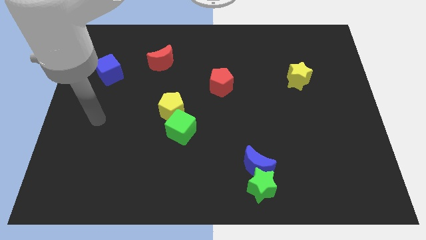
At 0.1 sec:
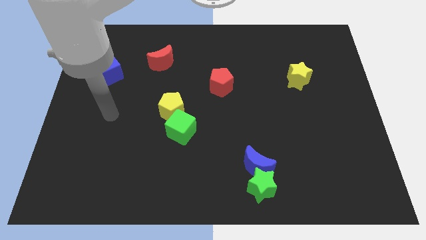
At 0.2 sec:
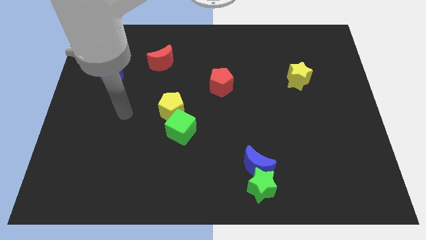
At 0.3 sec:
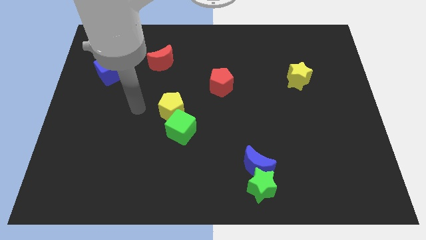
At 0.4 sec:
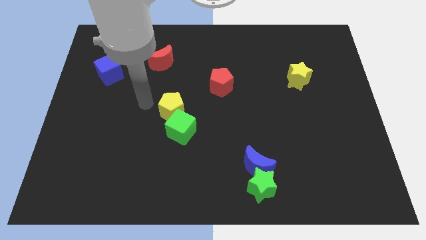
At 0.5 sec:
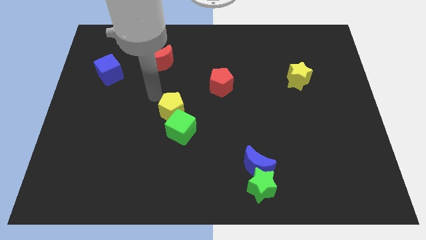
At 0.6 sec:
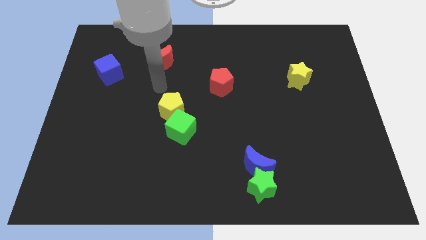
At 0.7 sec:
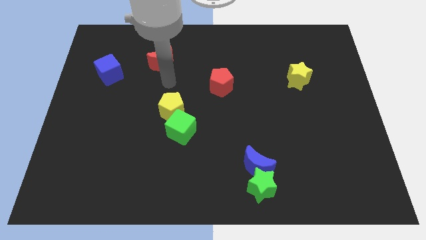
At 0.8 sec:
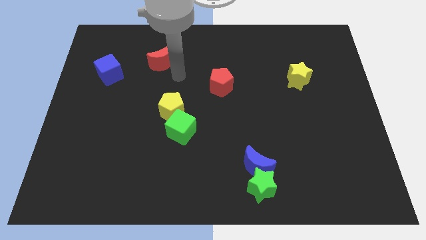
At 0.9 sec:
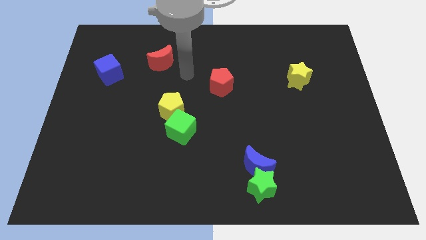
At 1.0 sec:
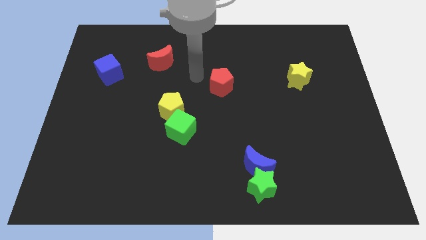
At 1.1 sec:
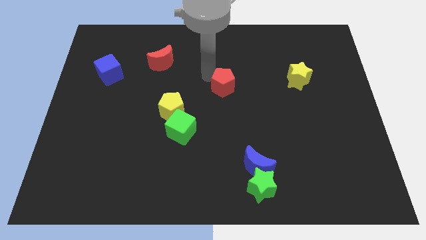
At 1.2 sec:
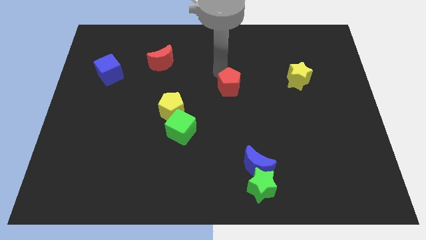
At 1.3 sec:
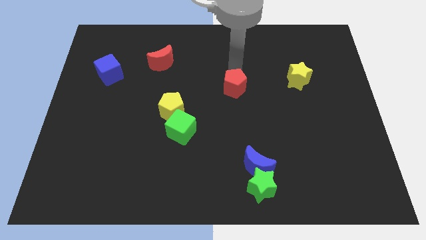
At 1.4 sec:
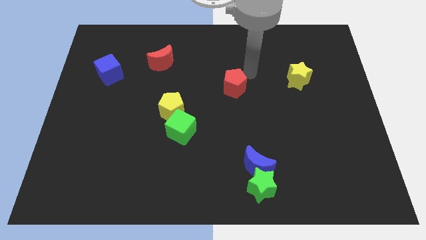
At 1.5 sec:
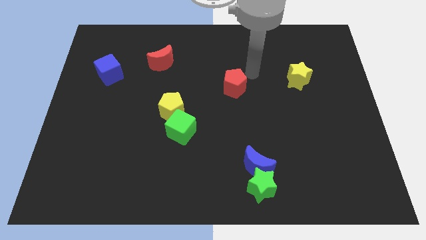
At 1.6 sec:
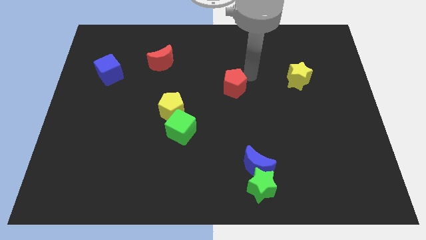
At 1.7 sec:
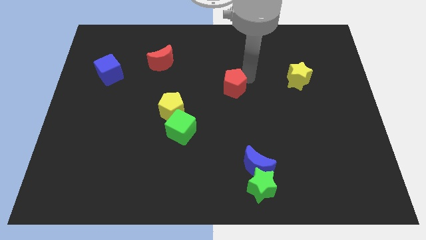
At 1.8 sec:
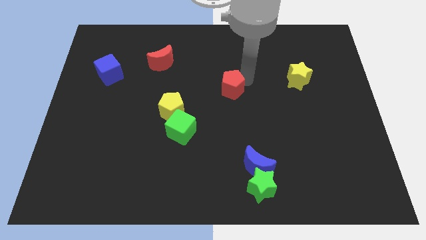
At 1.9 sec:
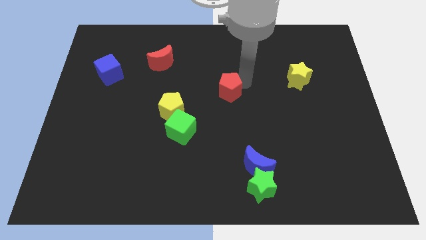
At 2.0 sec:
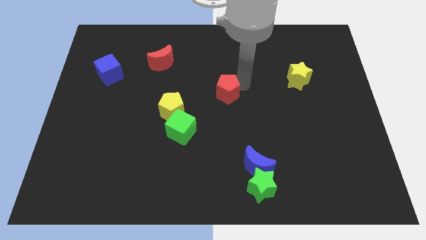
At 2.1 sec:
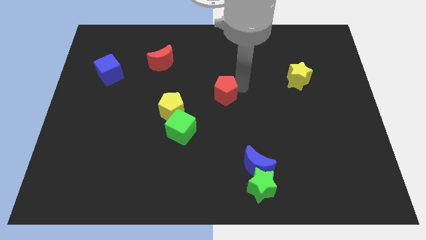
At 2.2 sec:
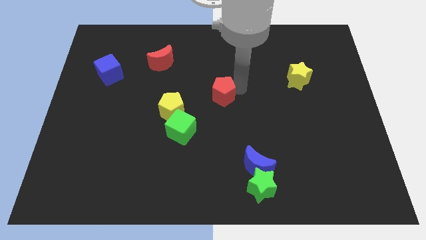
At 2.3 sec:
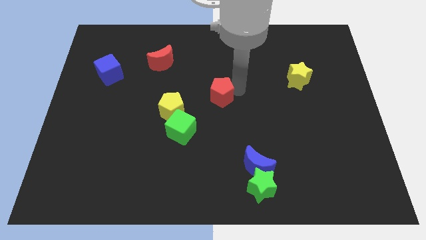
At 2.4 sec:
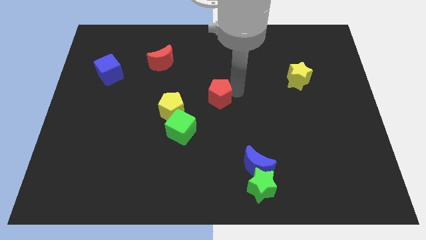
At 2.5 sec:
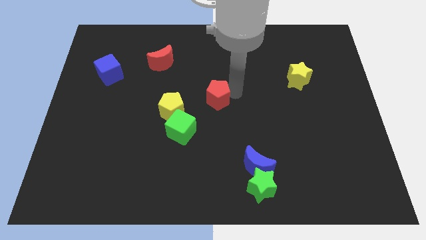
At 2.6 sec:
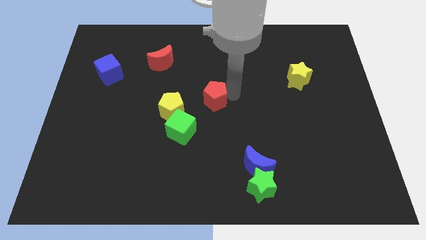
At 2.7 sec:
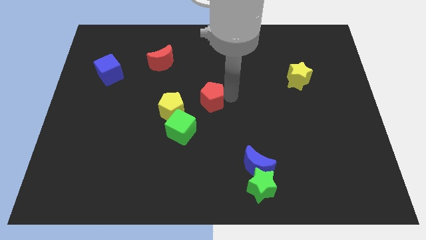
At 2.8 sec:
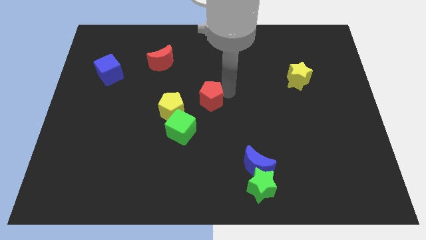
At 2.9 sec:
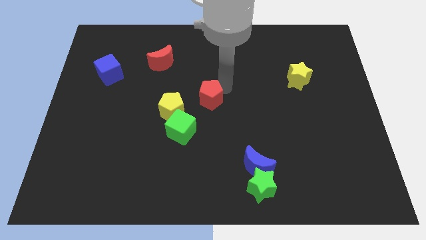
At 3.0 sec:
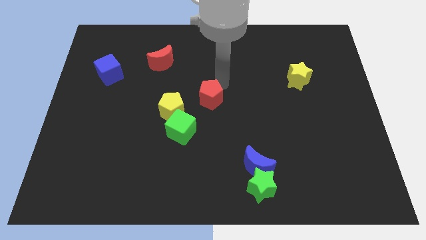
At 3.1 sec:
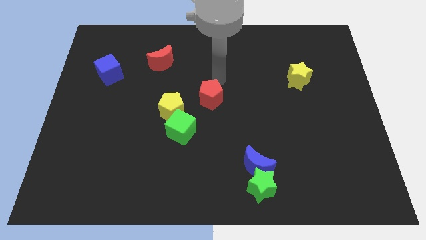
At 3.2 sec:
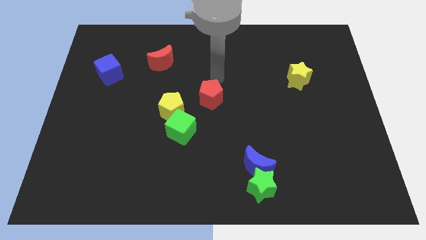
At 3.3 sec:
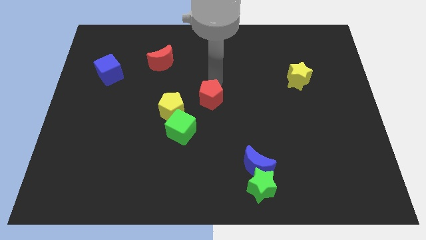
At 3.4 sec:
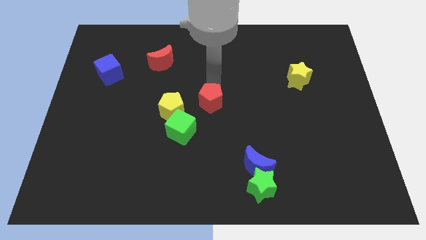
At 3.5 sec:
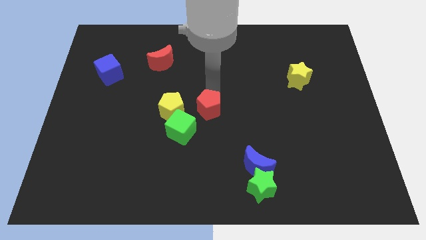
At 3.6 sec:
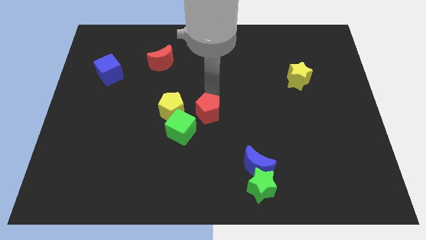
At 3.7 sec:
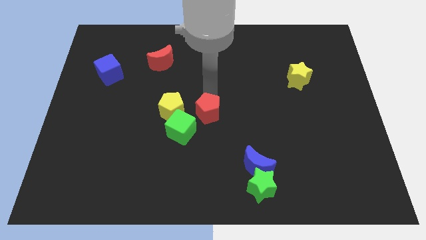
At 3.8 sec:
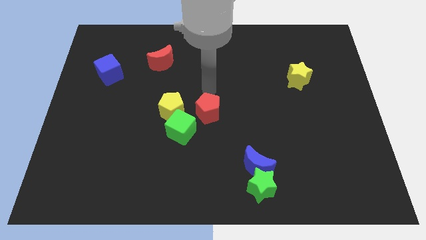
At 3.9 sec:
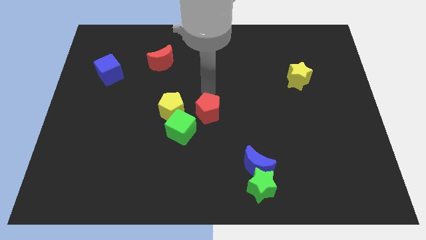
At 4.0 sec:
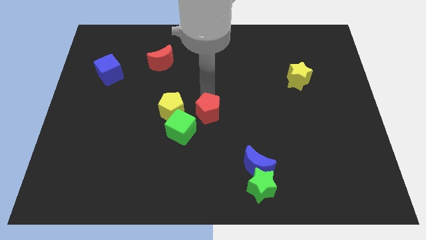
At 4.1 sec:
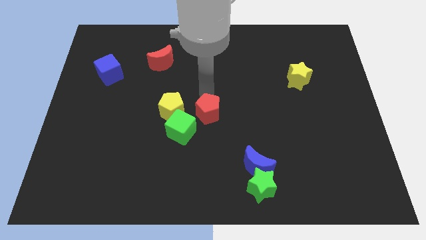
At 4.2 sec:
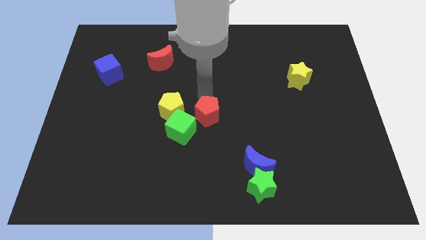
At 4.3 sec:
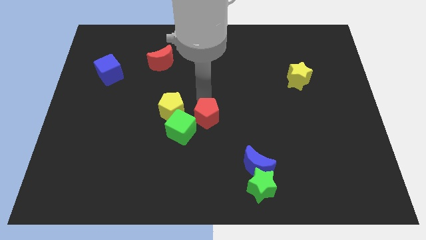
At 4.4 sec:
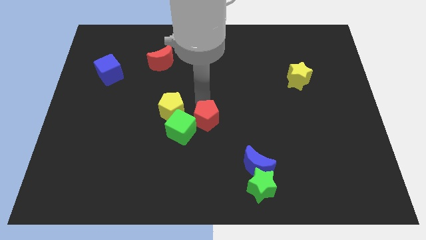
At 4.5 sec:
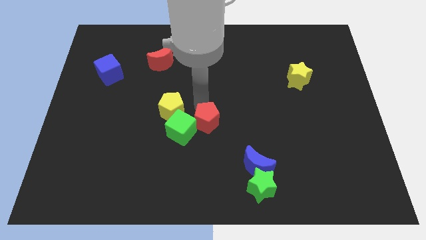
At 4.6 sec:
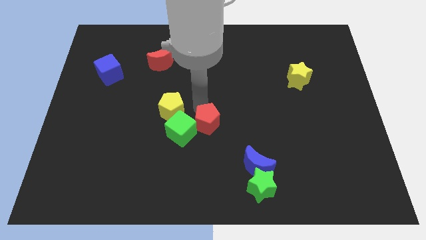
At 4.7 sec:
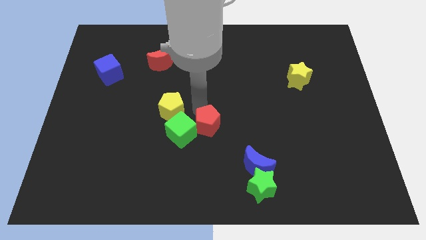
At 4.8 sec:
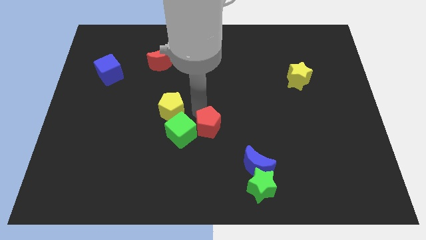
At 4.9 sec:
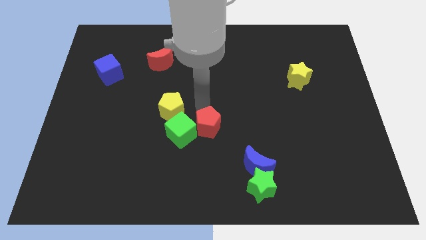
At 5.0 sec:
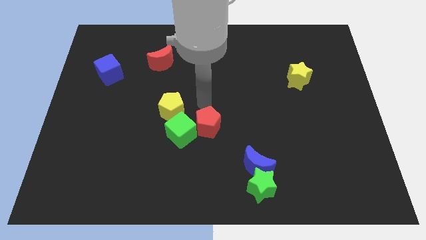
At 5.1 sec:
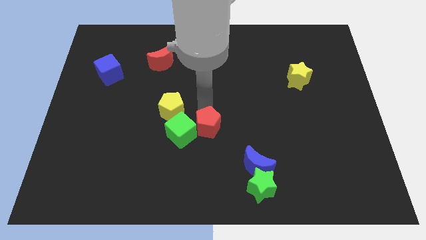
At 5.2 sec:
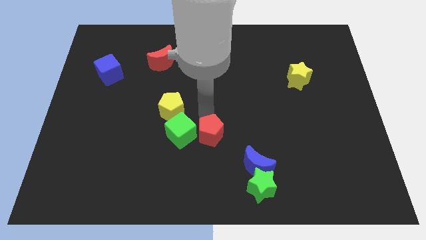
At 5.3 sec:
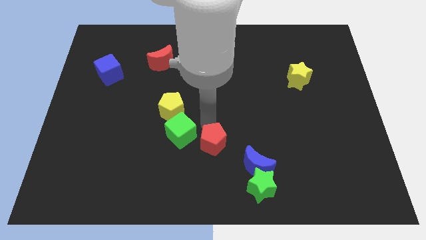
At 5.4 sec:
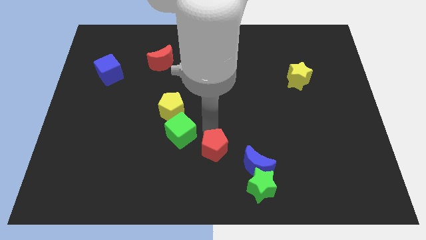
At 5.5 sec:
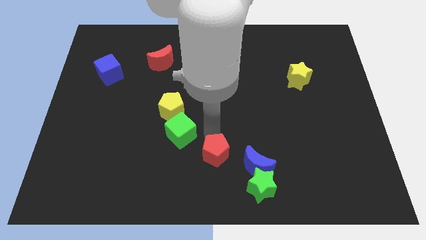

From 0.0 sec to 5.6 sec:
move the red pentagon to the bottom side

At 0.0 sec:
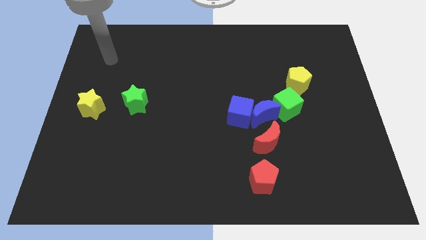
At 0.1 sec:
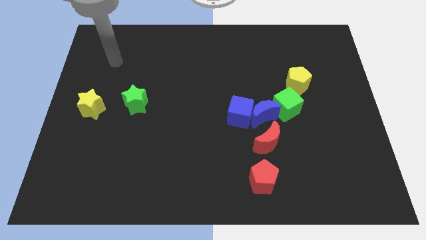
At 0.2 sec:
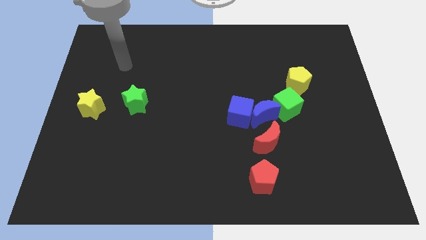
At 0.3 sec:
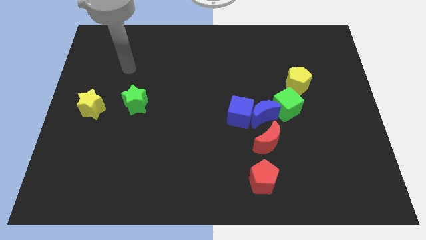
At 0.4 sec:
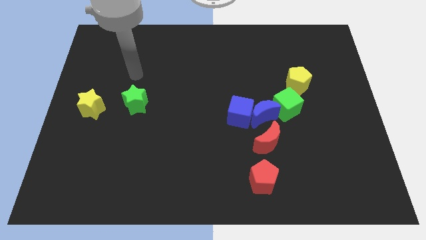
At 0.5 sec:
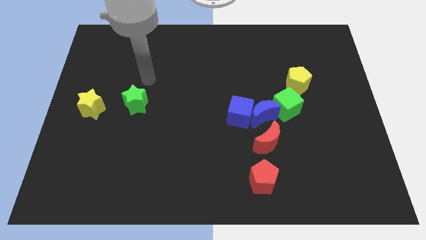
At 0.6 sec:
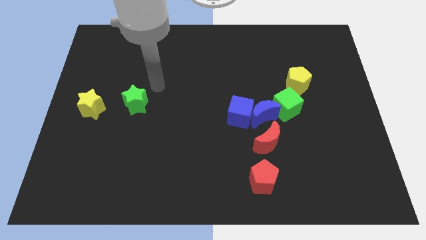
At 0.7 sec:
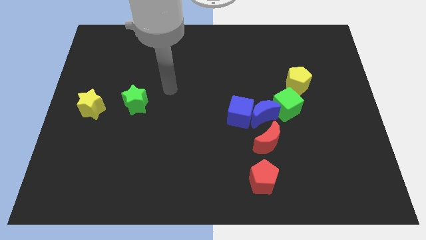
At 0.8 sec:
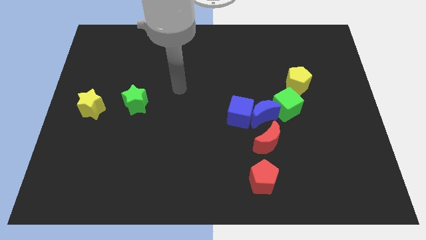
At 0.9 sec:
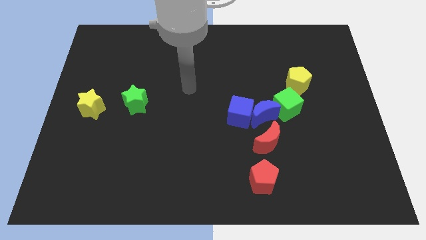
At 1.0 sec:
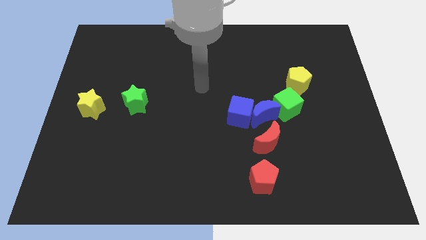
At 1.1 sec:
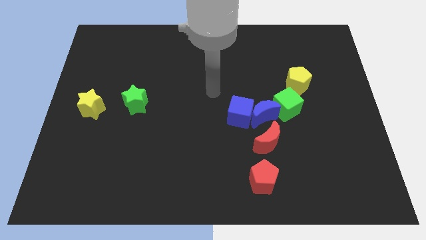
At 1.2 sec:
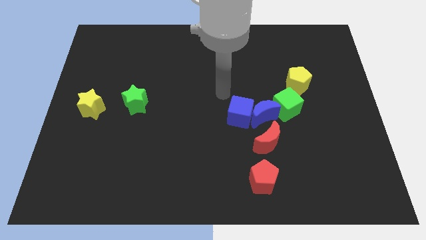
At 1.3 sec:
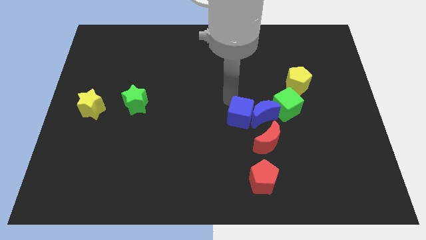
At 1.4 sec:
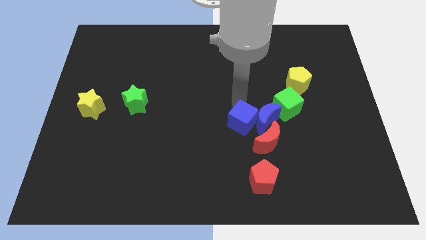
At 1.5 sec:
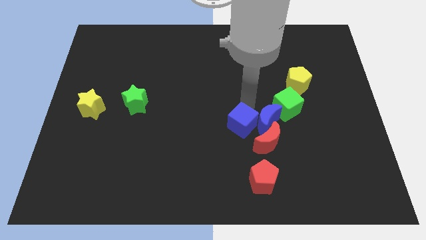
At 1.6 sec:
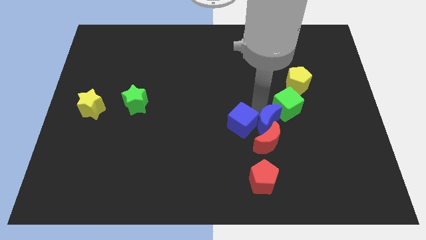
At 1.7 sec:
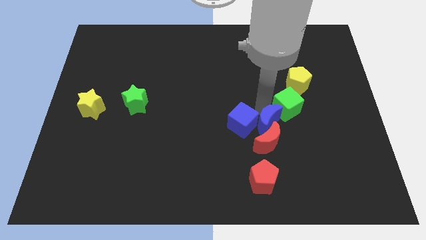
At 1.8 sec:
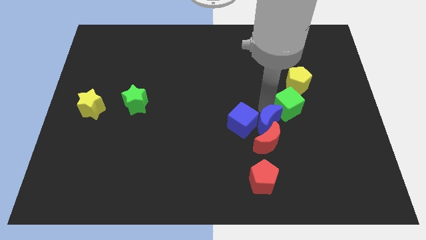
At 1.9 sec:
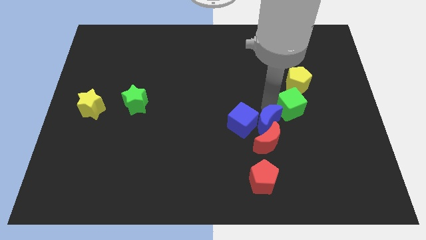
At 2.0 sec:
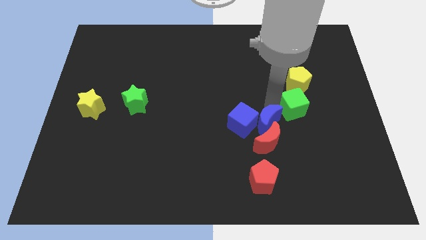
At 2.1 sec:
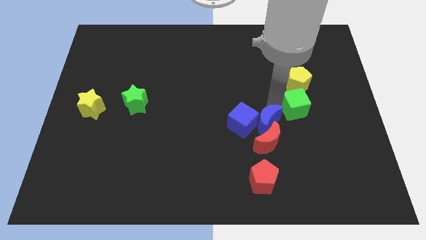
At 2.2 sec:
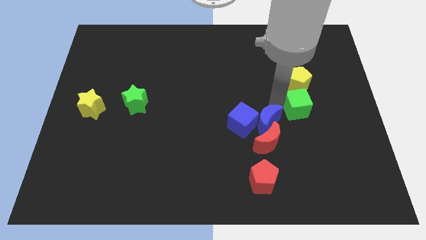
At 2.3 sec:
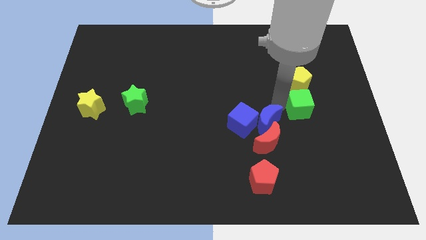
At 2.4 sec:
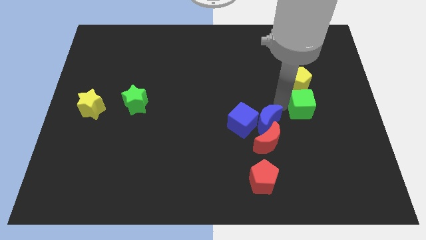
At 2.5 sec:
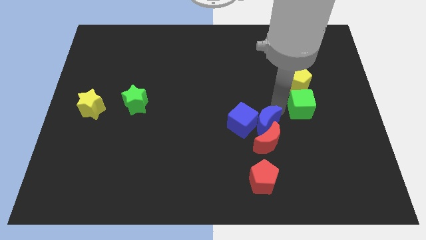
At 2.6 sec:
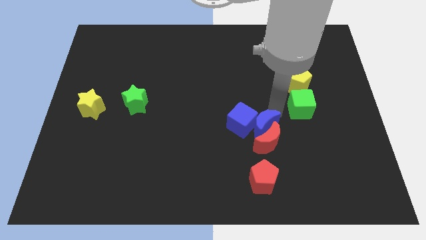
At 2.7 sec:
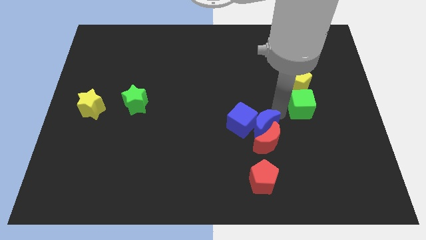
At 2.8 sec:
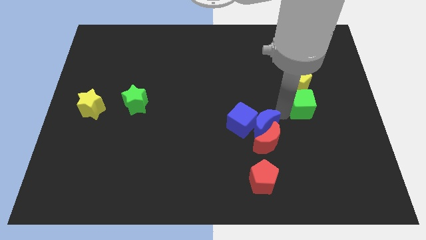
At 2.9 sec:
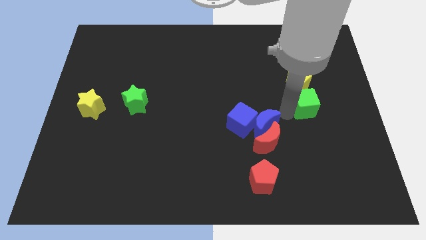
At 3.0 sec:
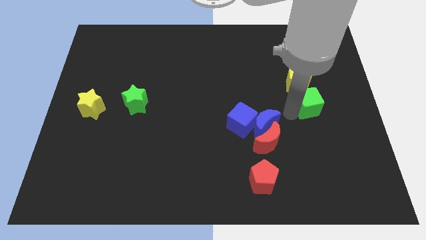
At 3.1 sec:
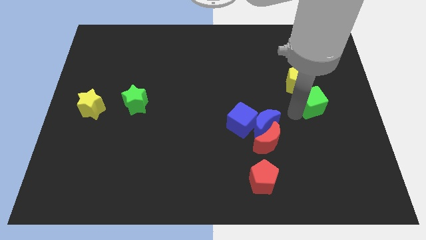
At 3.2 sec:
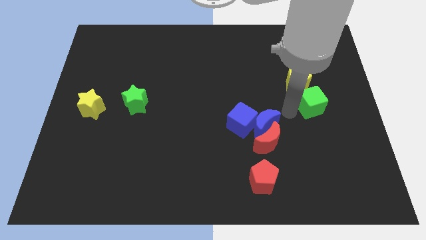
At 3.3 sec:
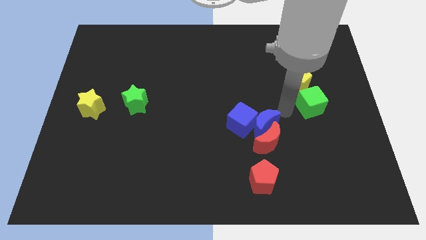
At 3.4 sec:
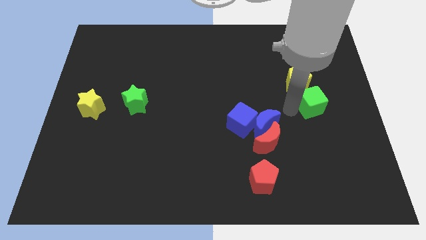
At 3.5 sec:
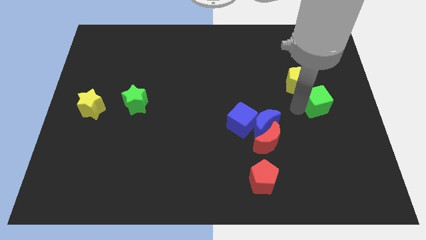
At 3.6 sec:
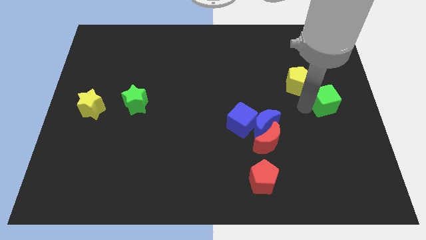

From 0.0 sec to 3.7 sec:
push the green cube to the right side
